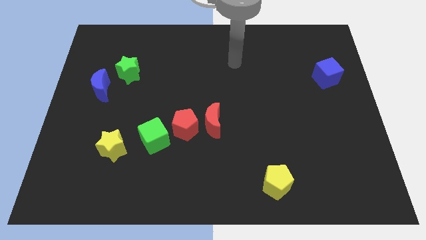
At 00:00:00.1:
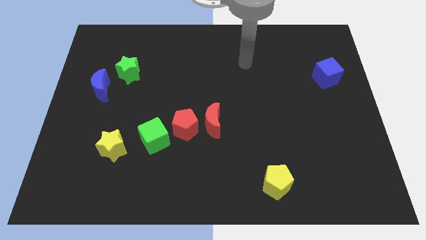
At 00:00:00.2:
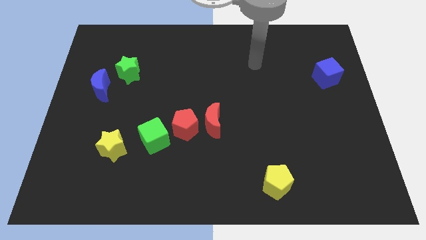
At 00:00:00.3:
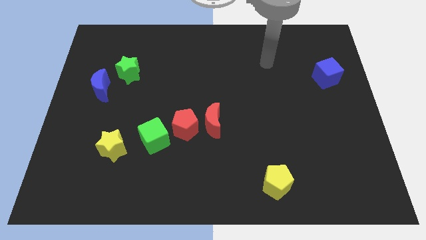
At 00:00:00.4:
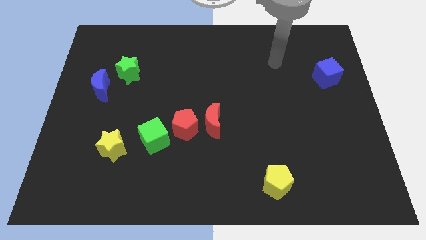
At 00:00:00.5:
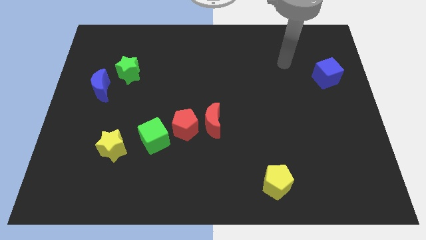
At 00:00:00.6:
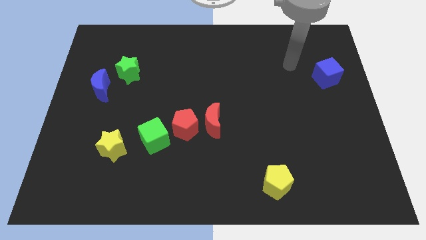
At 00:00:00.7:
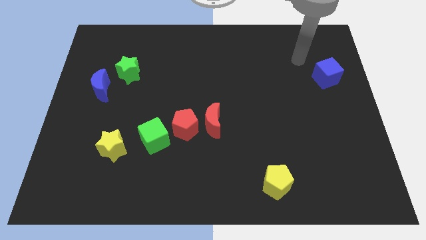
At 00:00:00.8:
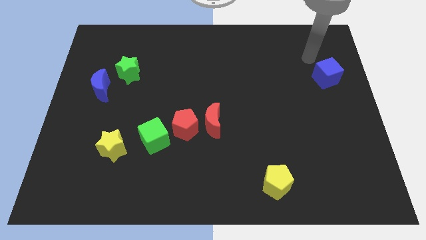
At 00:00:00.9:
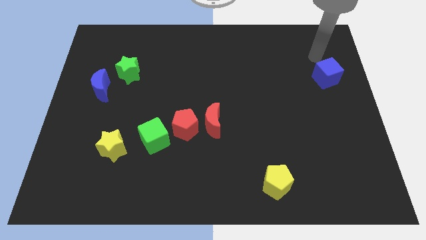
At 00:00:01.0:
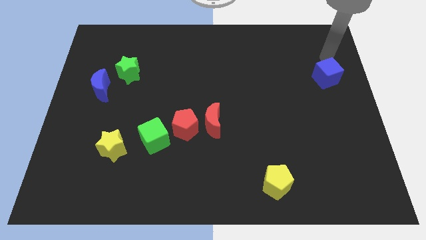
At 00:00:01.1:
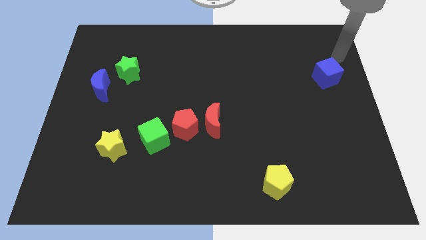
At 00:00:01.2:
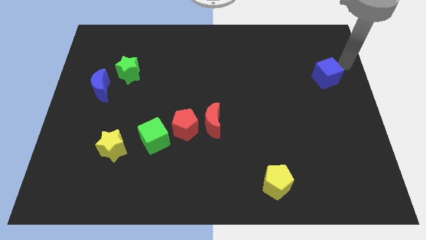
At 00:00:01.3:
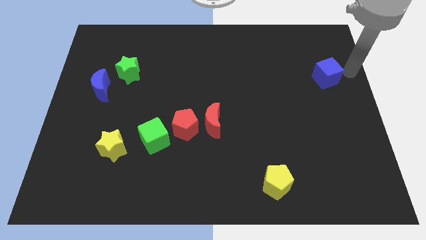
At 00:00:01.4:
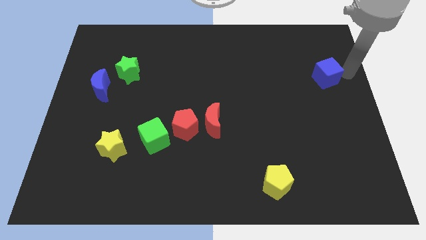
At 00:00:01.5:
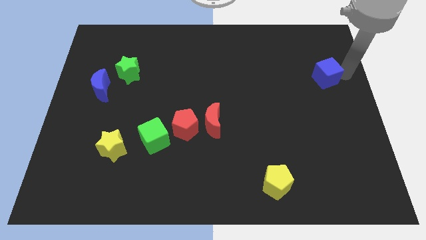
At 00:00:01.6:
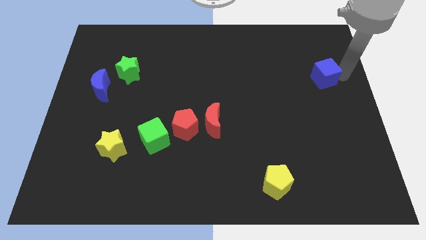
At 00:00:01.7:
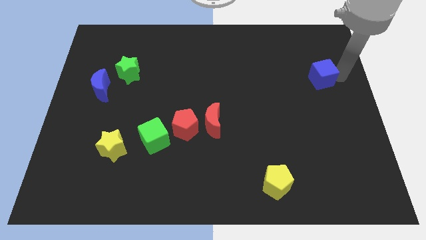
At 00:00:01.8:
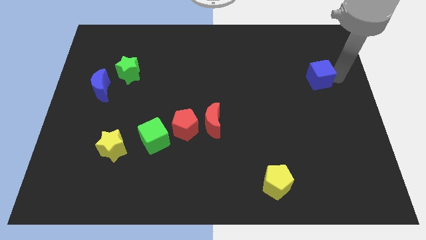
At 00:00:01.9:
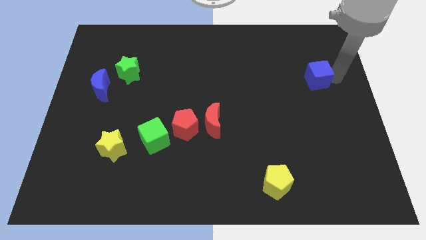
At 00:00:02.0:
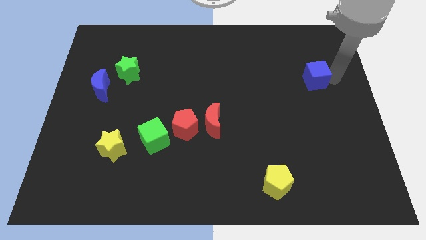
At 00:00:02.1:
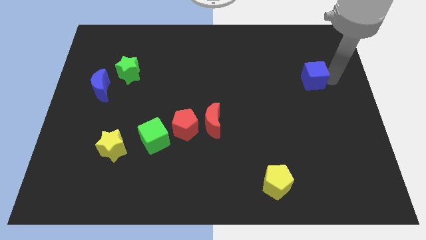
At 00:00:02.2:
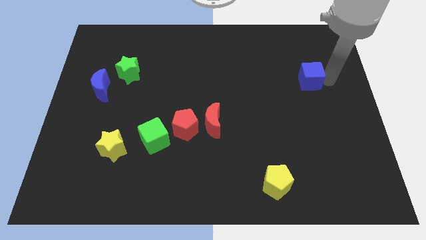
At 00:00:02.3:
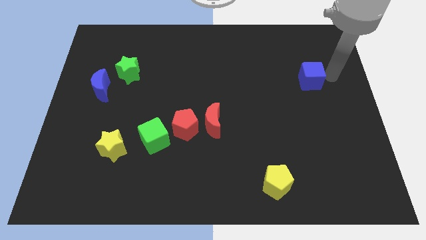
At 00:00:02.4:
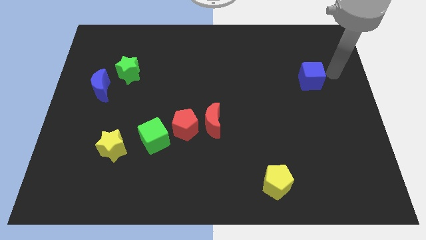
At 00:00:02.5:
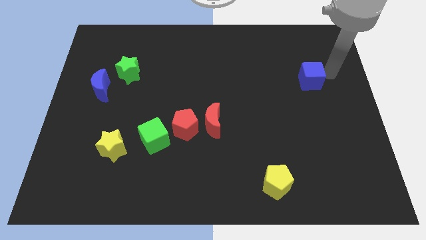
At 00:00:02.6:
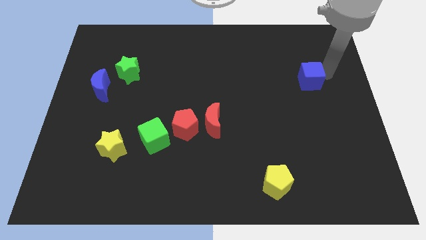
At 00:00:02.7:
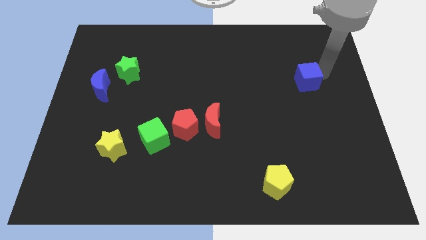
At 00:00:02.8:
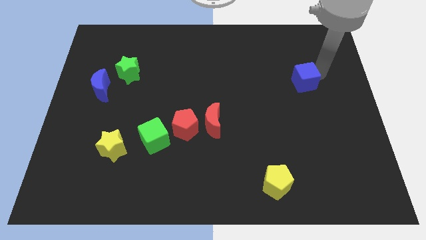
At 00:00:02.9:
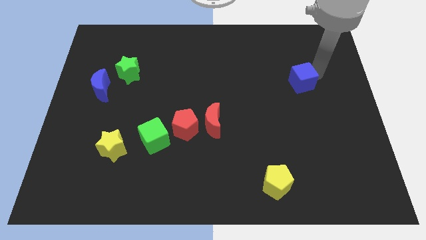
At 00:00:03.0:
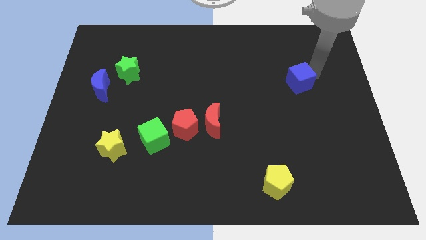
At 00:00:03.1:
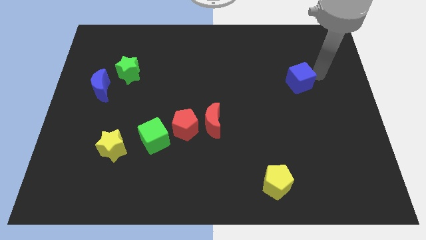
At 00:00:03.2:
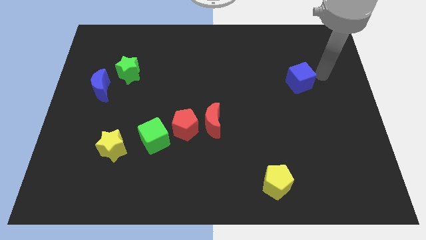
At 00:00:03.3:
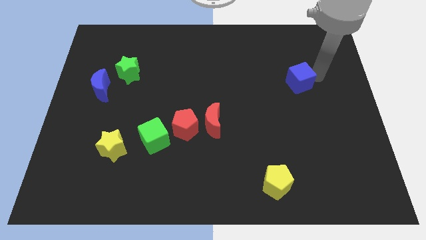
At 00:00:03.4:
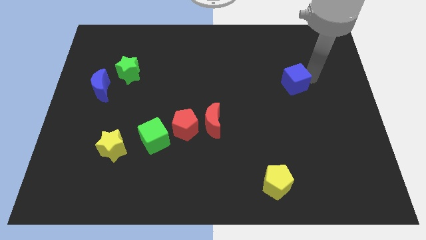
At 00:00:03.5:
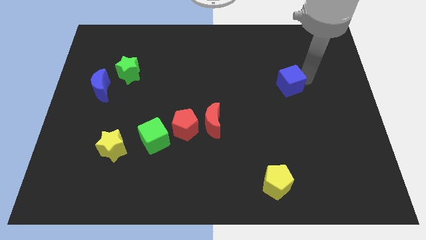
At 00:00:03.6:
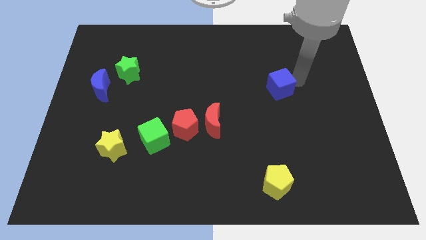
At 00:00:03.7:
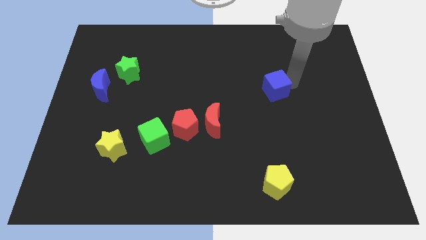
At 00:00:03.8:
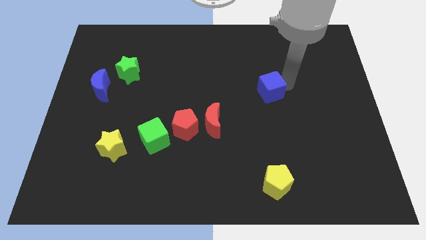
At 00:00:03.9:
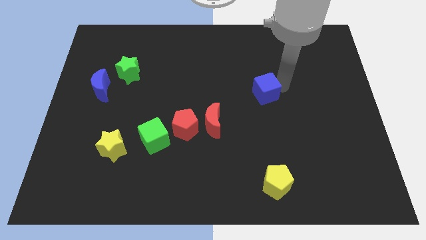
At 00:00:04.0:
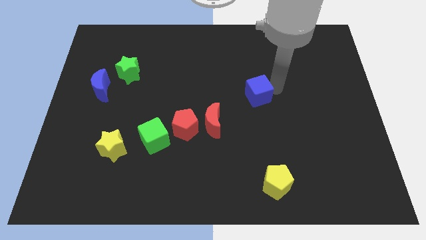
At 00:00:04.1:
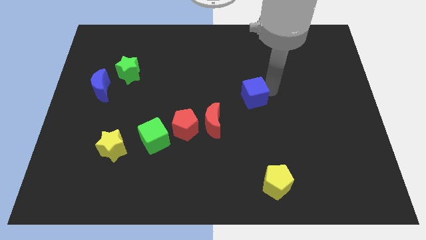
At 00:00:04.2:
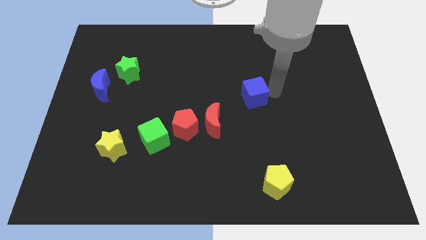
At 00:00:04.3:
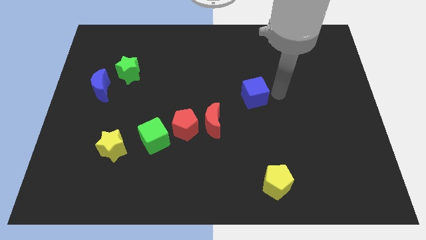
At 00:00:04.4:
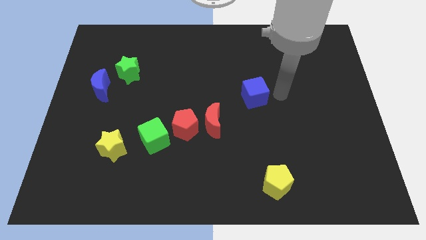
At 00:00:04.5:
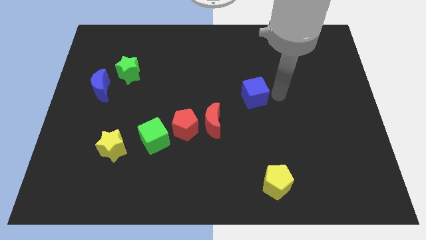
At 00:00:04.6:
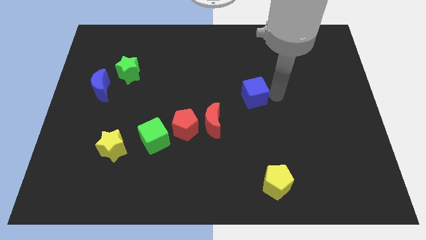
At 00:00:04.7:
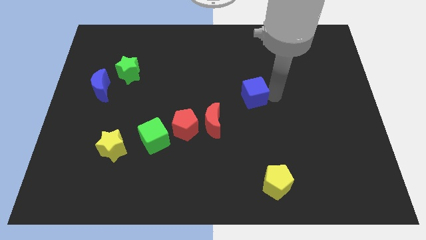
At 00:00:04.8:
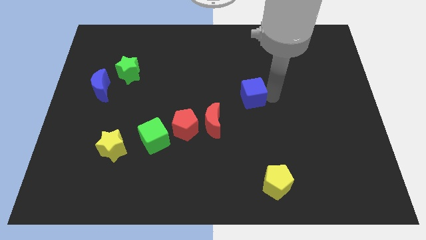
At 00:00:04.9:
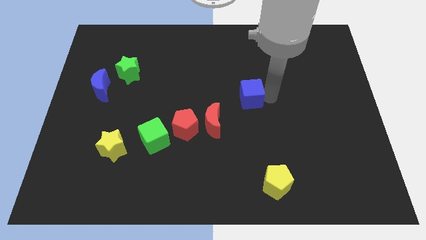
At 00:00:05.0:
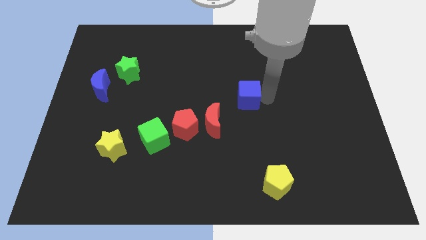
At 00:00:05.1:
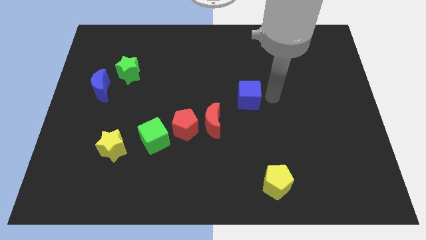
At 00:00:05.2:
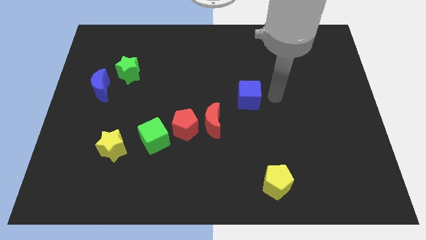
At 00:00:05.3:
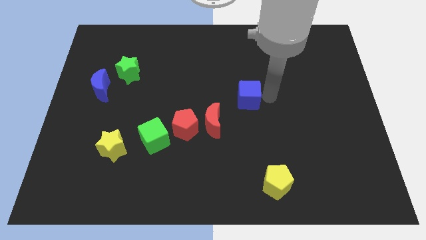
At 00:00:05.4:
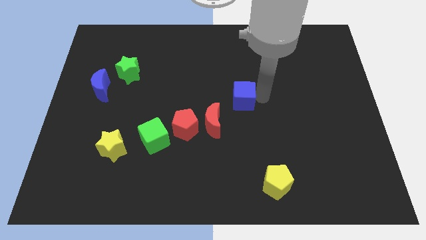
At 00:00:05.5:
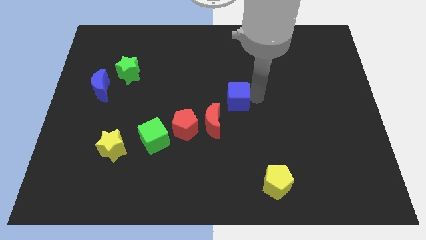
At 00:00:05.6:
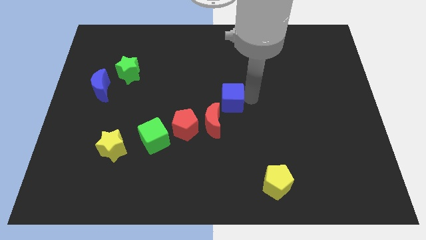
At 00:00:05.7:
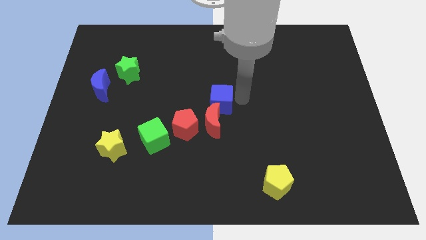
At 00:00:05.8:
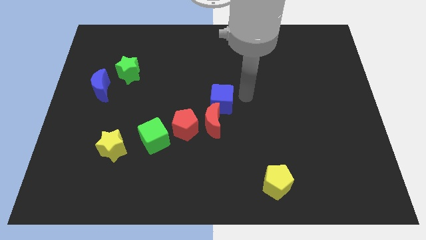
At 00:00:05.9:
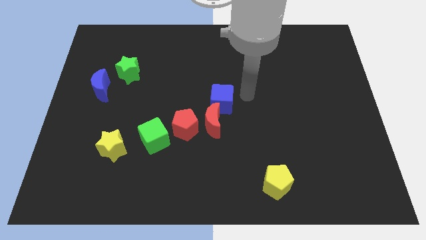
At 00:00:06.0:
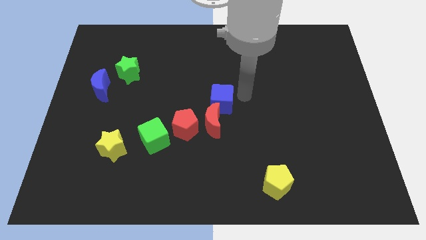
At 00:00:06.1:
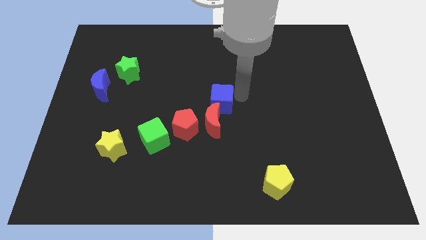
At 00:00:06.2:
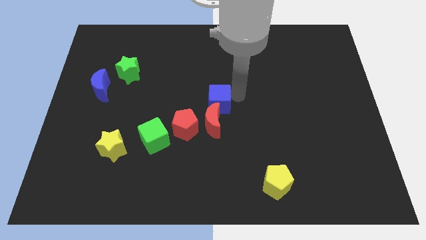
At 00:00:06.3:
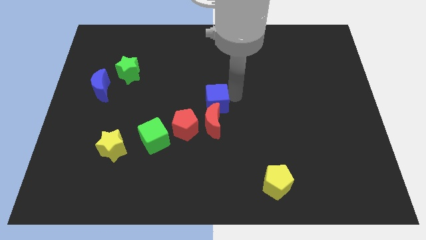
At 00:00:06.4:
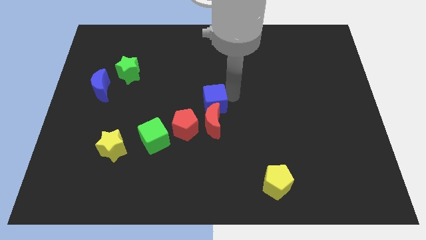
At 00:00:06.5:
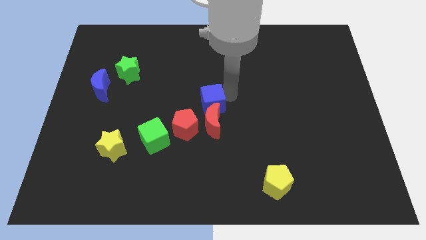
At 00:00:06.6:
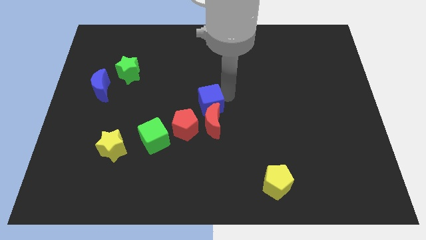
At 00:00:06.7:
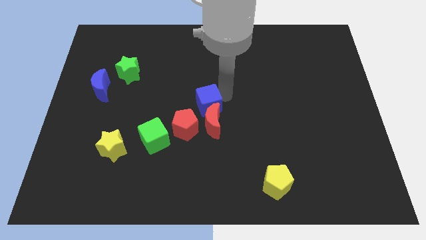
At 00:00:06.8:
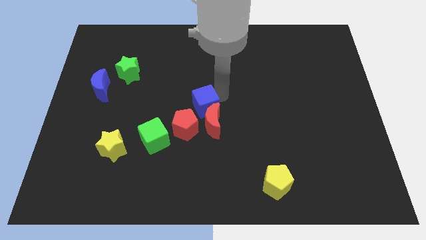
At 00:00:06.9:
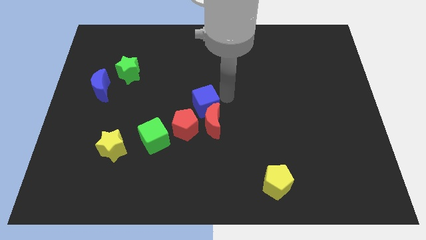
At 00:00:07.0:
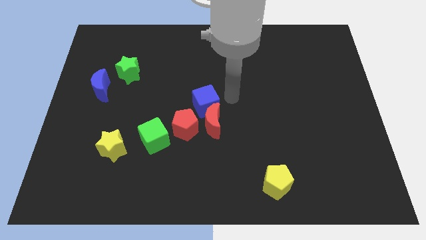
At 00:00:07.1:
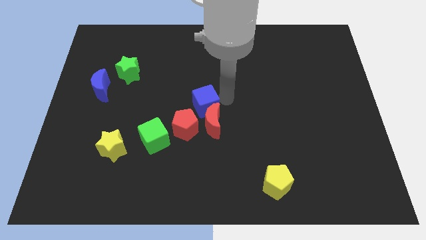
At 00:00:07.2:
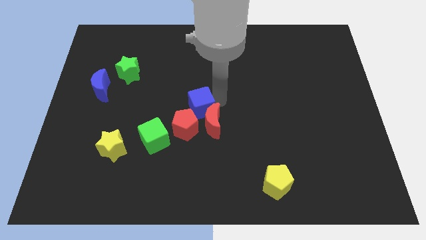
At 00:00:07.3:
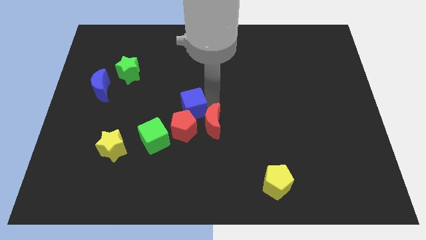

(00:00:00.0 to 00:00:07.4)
move the blue cube left of the red moon
